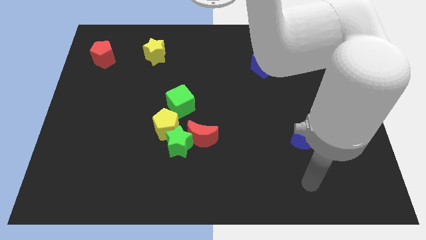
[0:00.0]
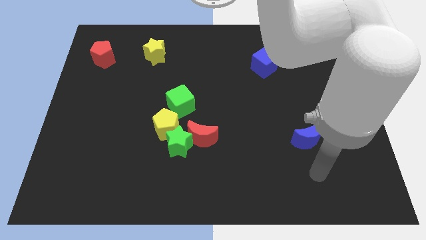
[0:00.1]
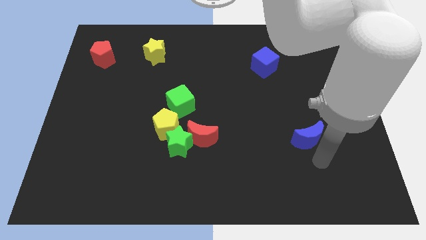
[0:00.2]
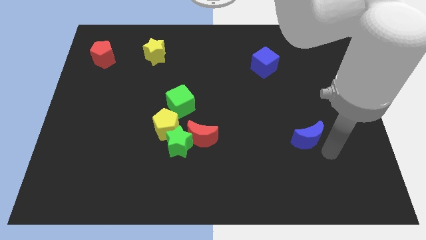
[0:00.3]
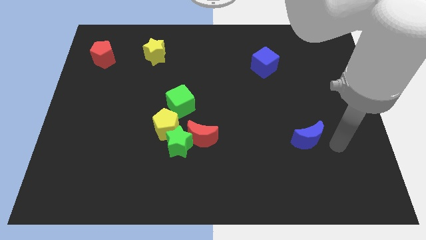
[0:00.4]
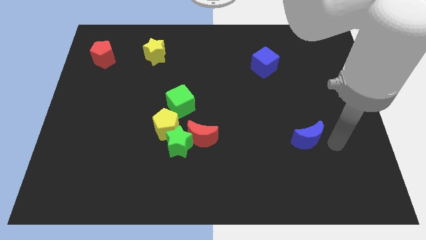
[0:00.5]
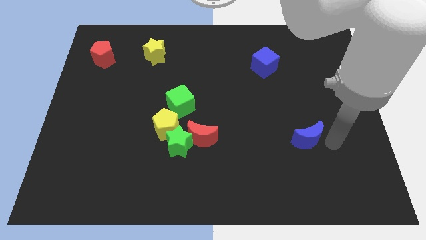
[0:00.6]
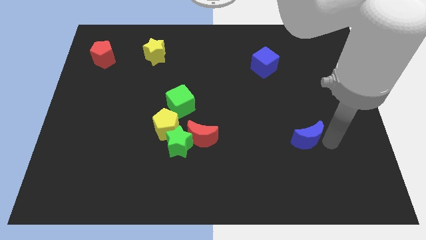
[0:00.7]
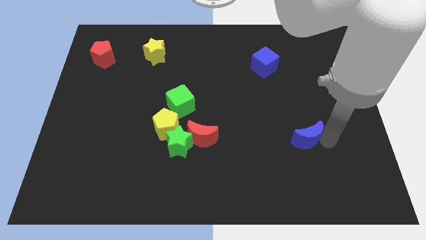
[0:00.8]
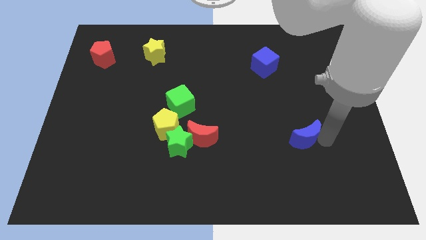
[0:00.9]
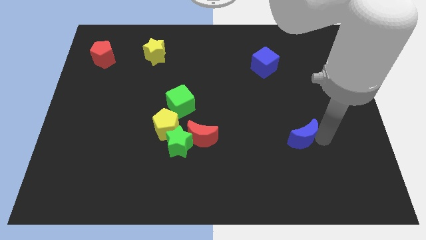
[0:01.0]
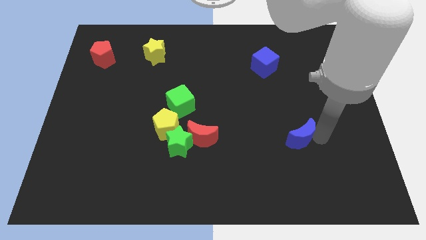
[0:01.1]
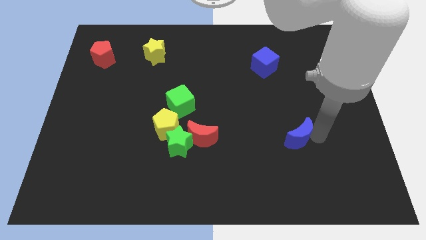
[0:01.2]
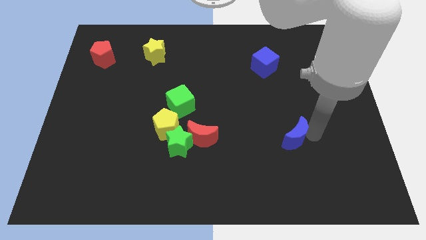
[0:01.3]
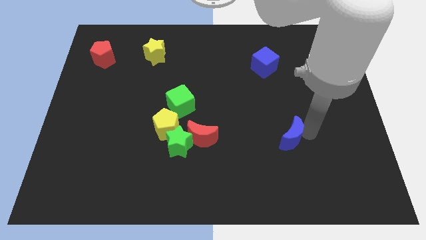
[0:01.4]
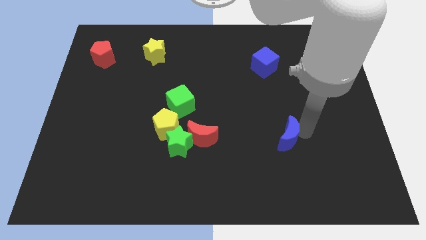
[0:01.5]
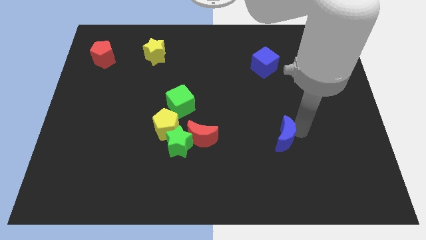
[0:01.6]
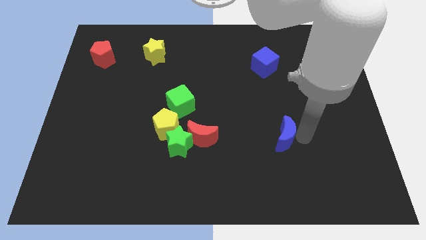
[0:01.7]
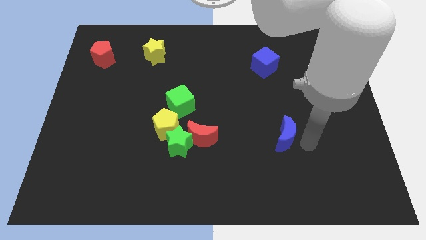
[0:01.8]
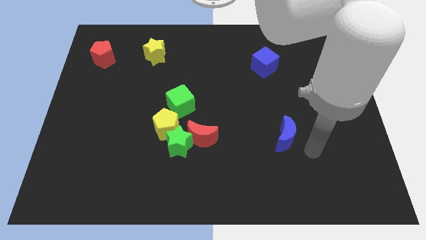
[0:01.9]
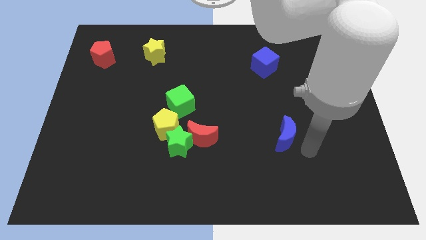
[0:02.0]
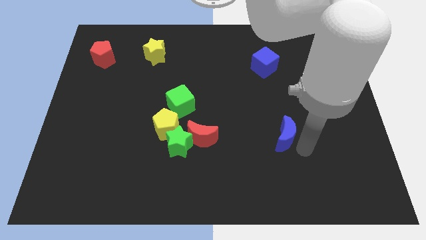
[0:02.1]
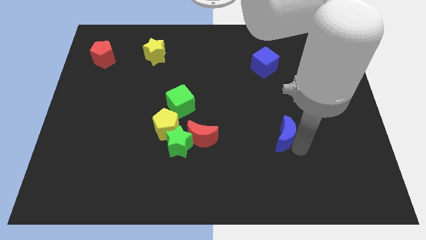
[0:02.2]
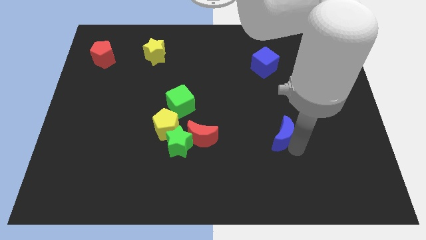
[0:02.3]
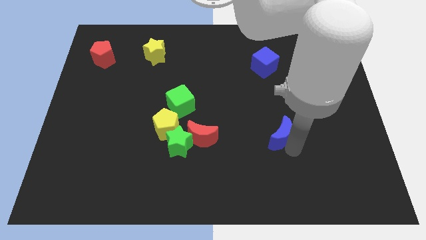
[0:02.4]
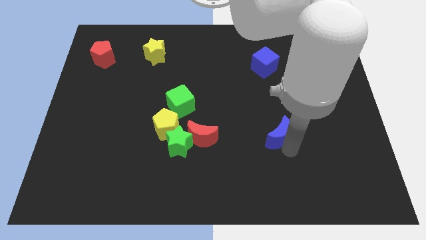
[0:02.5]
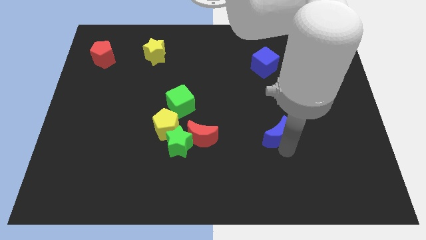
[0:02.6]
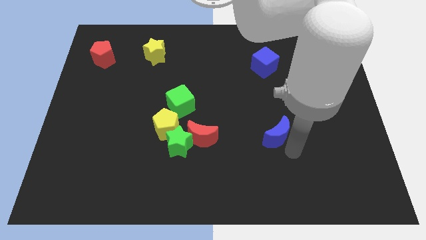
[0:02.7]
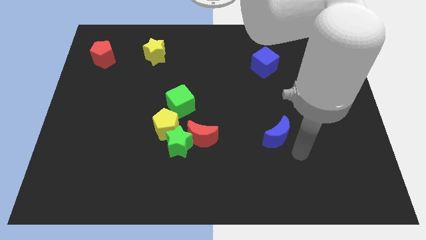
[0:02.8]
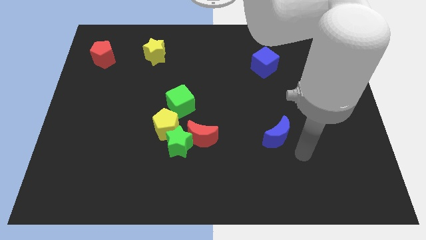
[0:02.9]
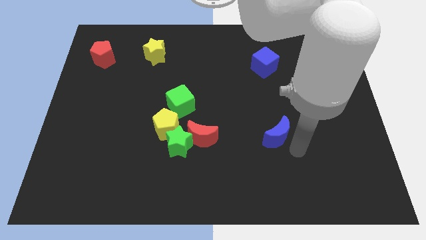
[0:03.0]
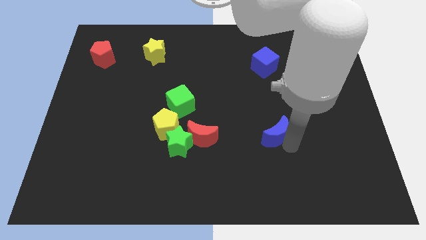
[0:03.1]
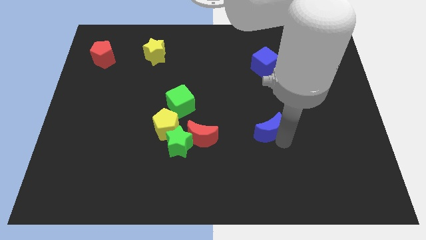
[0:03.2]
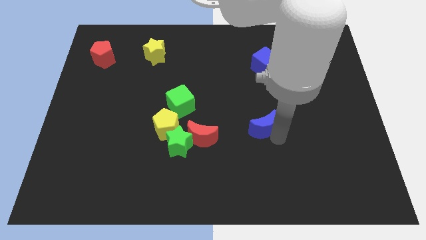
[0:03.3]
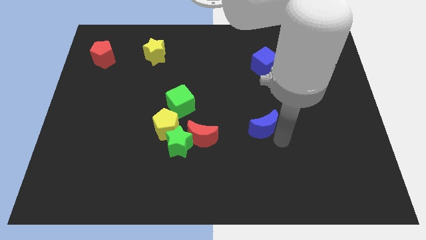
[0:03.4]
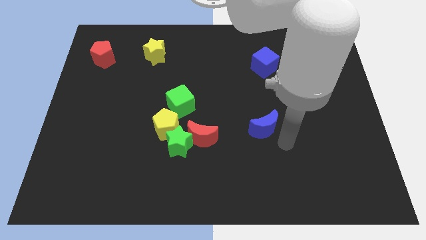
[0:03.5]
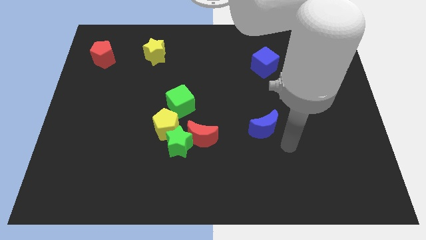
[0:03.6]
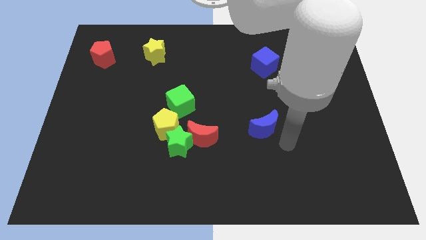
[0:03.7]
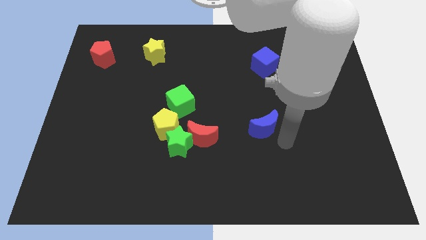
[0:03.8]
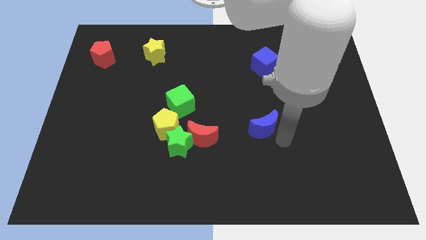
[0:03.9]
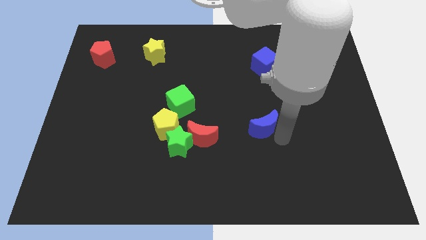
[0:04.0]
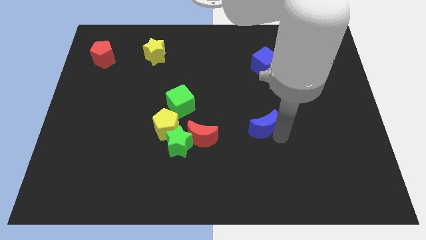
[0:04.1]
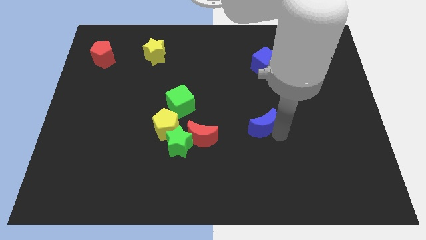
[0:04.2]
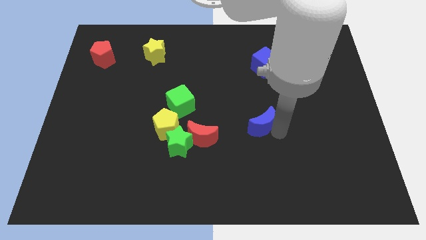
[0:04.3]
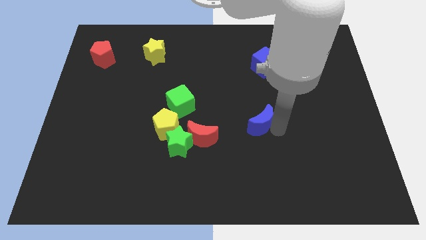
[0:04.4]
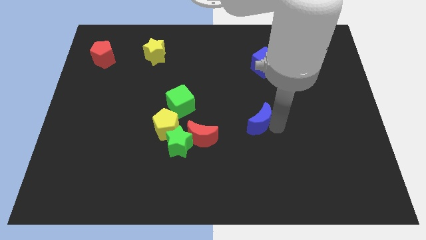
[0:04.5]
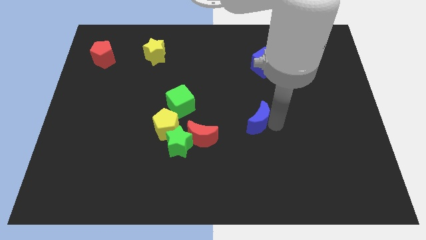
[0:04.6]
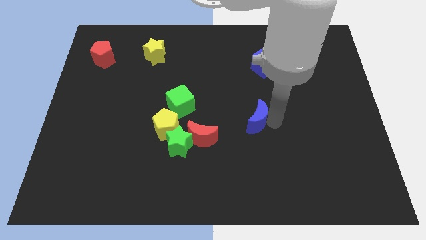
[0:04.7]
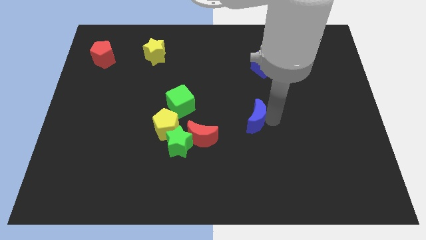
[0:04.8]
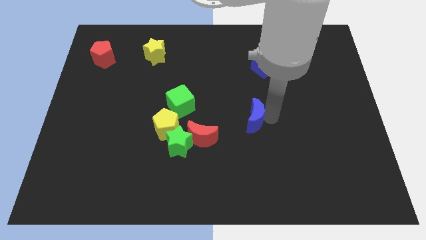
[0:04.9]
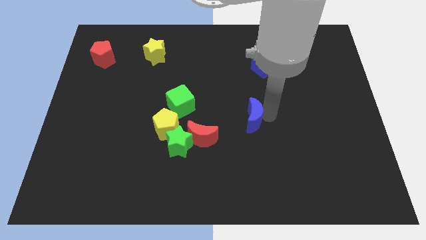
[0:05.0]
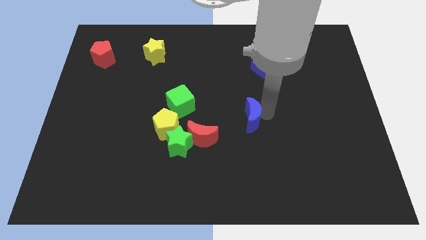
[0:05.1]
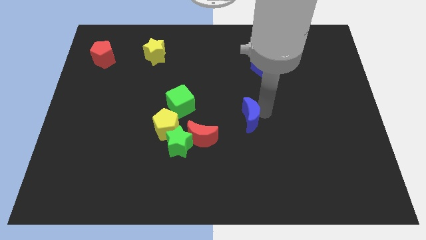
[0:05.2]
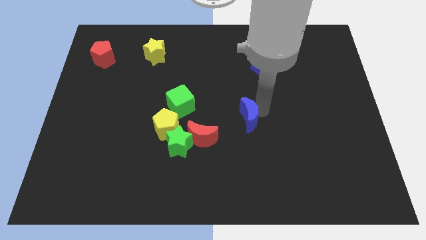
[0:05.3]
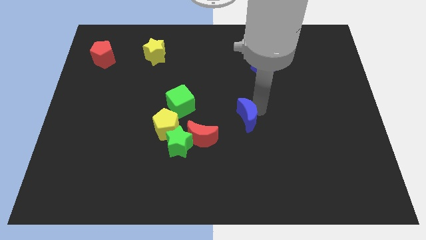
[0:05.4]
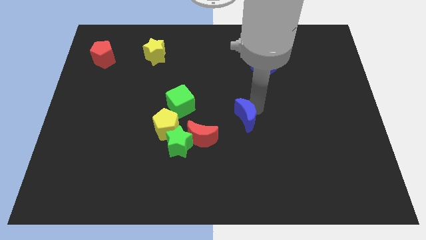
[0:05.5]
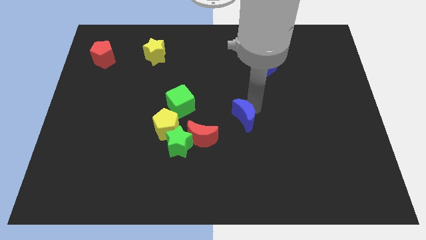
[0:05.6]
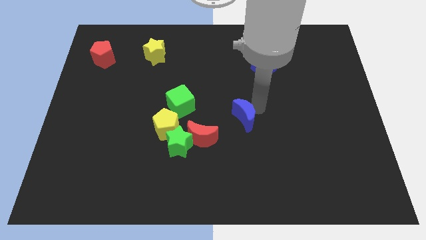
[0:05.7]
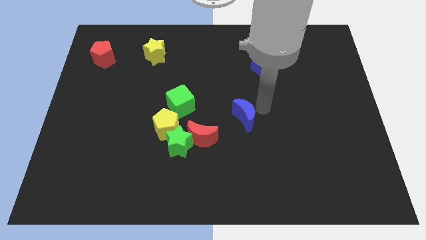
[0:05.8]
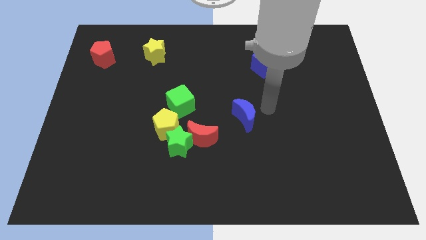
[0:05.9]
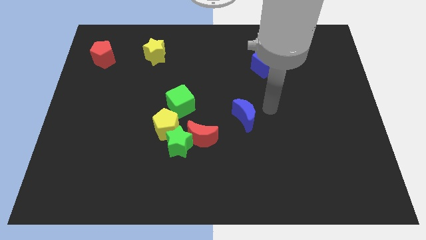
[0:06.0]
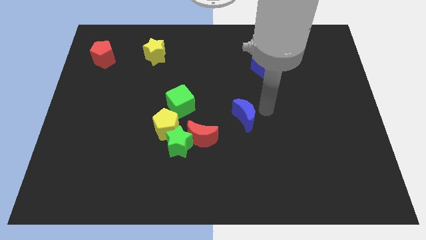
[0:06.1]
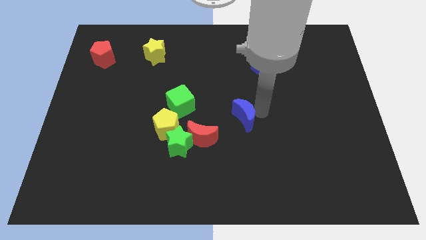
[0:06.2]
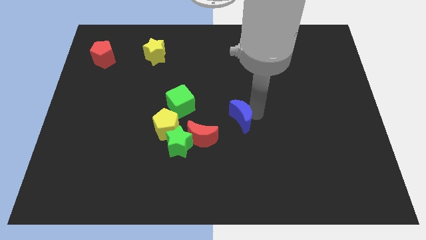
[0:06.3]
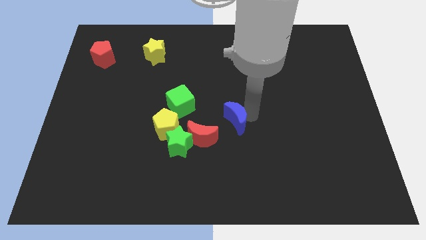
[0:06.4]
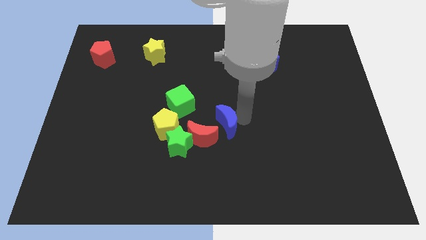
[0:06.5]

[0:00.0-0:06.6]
push the blue moon to the top right of the green star

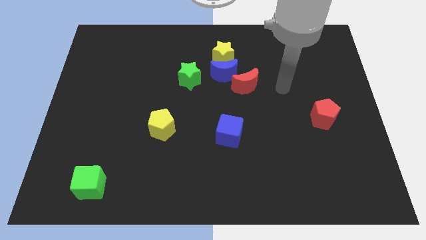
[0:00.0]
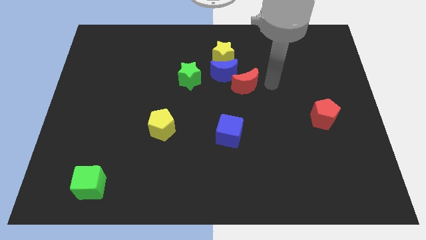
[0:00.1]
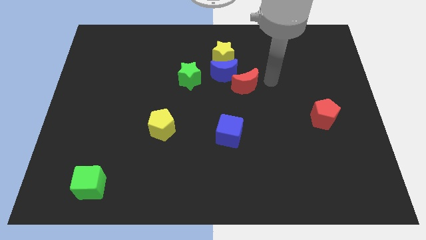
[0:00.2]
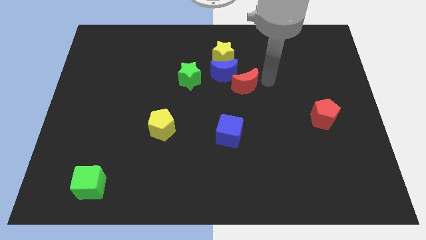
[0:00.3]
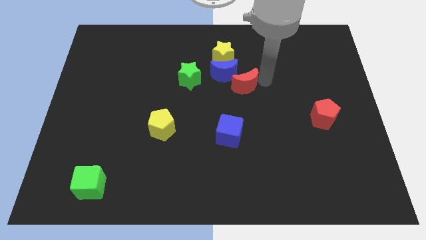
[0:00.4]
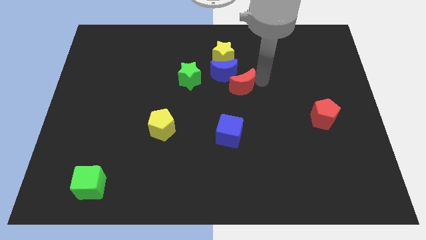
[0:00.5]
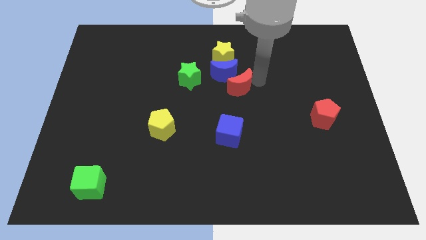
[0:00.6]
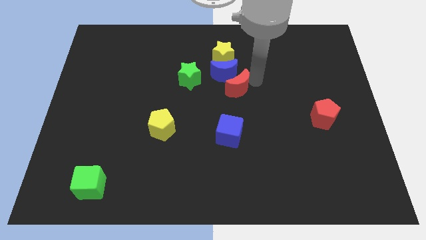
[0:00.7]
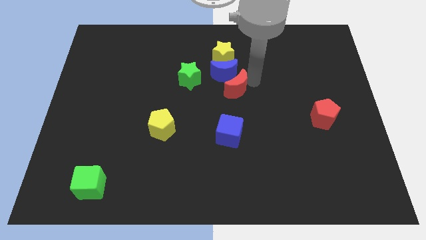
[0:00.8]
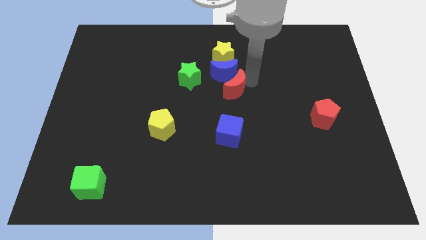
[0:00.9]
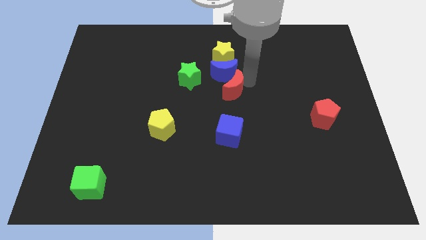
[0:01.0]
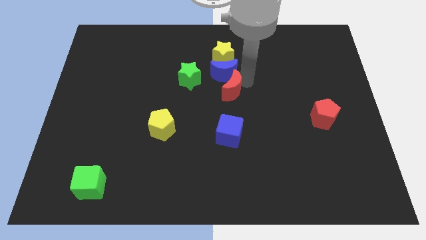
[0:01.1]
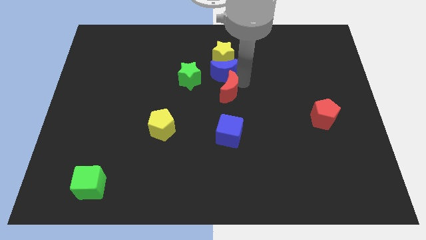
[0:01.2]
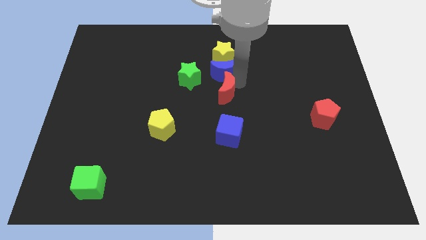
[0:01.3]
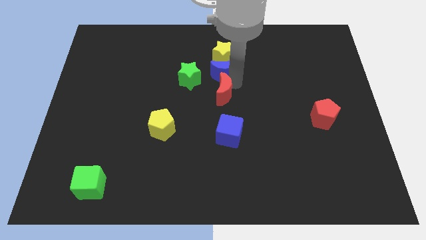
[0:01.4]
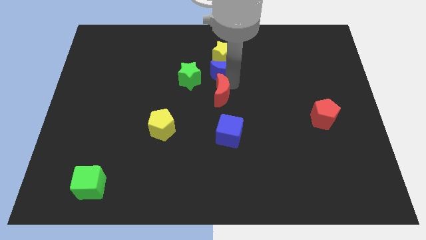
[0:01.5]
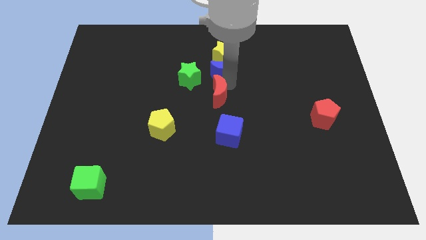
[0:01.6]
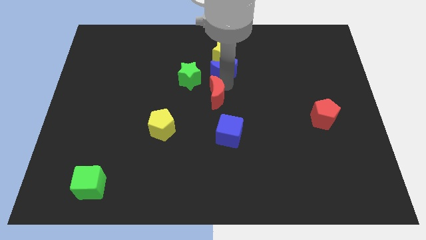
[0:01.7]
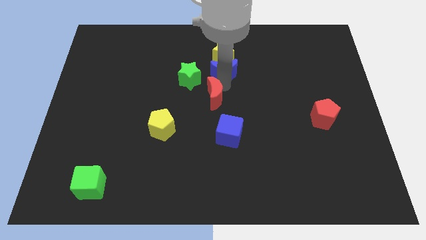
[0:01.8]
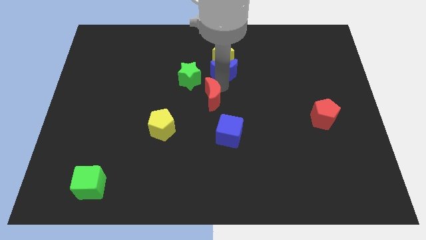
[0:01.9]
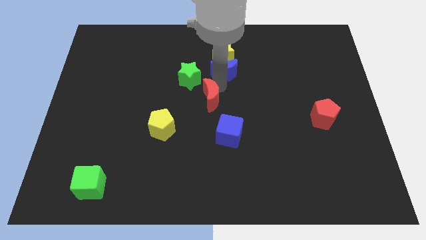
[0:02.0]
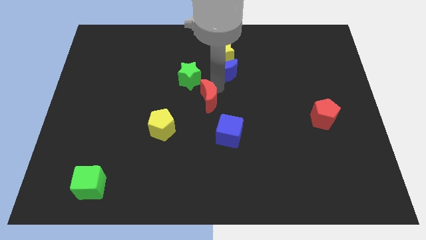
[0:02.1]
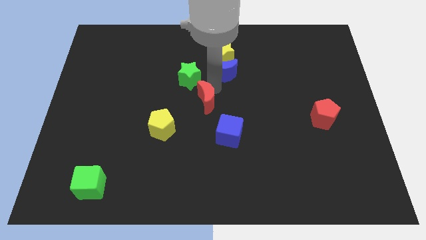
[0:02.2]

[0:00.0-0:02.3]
slide the red moon diagonally up and to the right of the yellow pentagon
